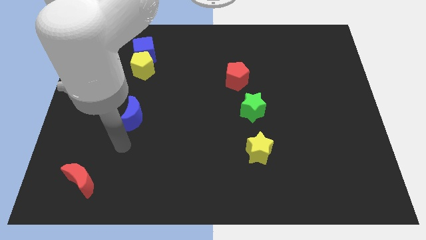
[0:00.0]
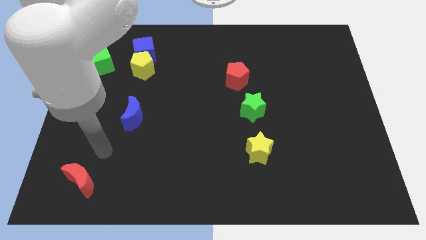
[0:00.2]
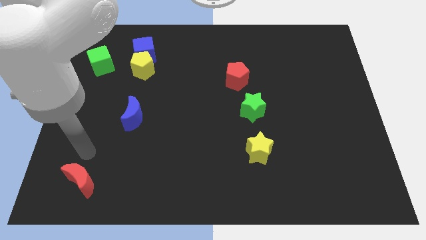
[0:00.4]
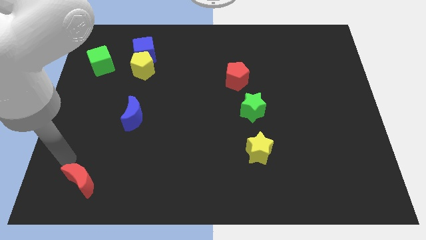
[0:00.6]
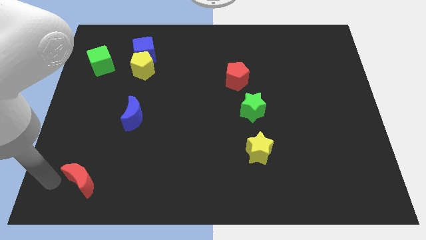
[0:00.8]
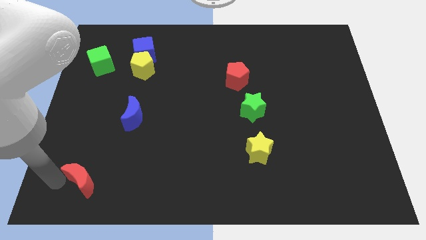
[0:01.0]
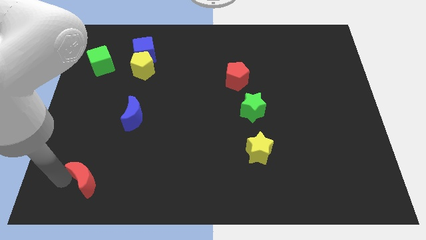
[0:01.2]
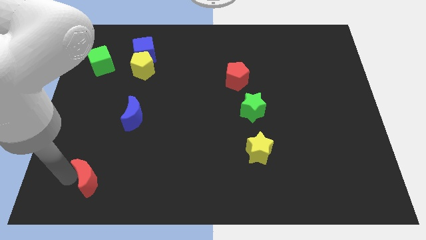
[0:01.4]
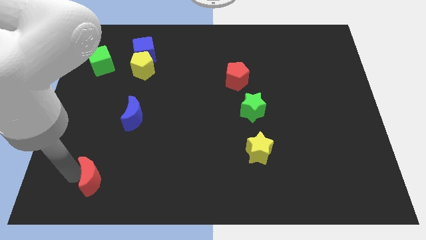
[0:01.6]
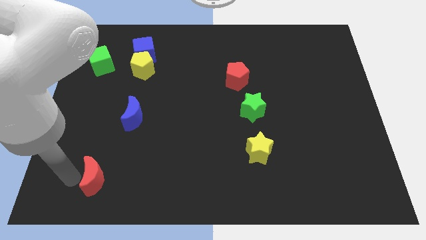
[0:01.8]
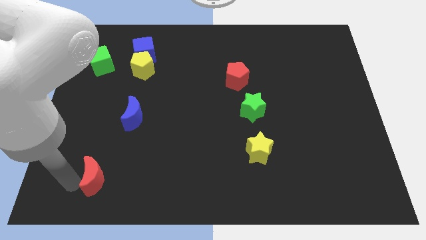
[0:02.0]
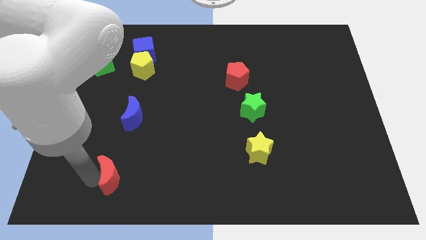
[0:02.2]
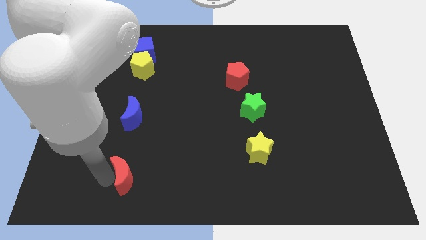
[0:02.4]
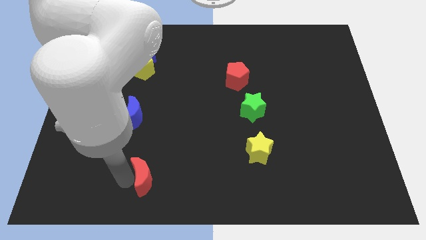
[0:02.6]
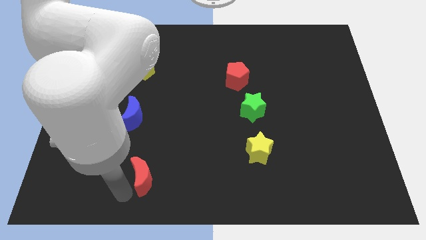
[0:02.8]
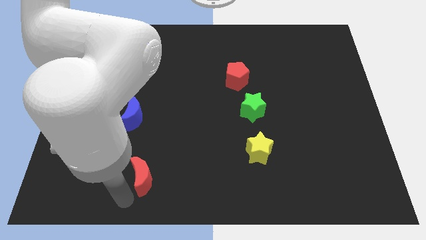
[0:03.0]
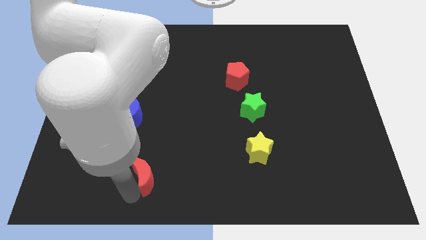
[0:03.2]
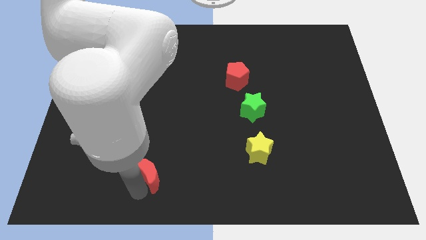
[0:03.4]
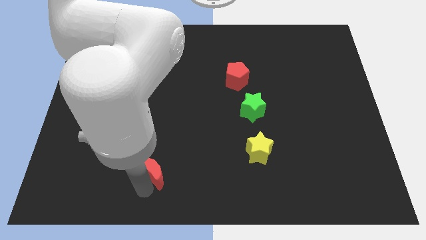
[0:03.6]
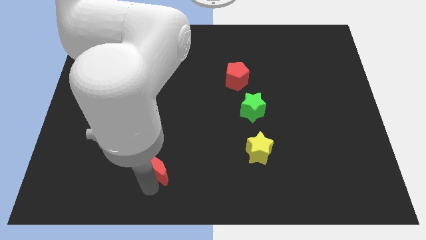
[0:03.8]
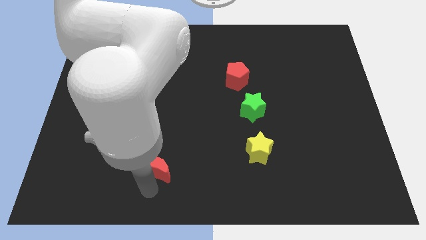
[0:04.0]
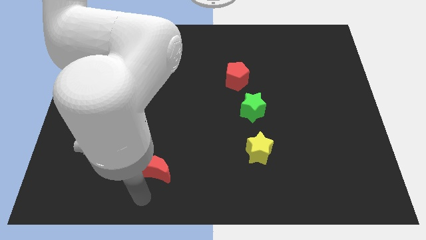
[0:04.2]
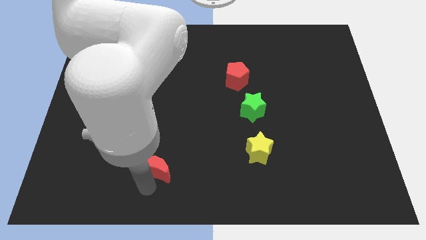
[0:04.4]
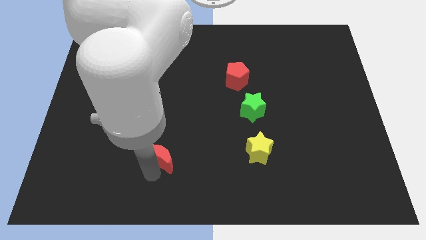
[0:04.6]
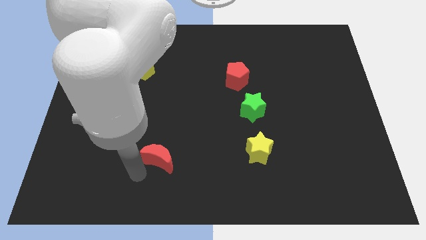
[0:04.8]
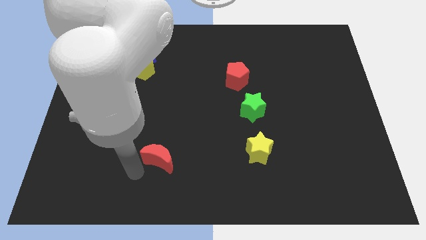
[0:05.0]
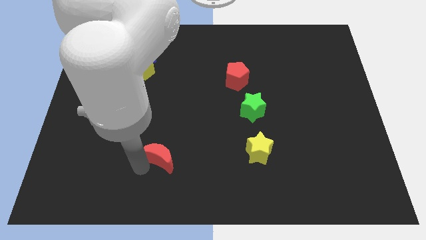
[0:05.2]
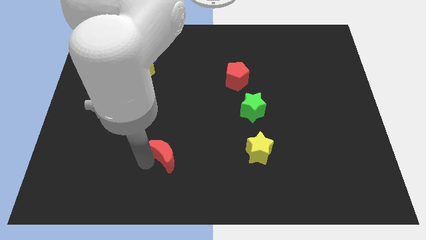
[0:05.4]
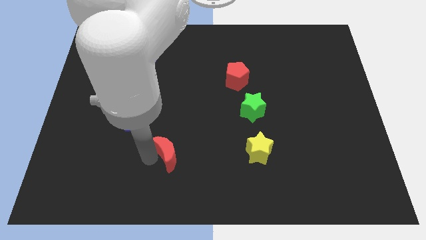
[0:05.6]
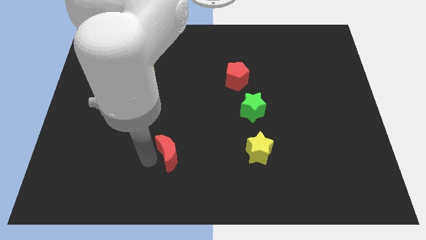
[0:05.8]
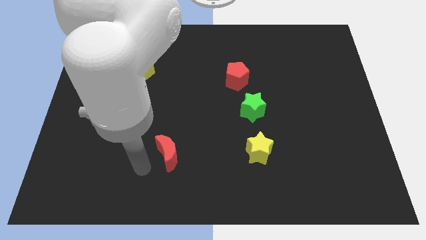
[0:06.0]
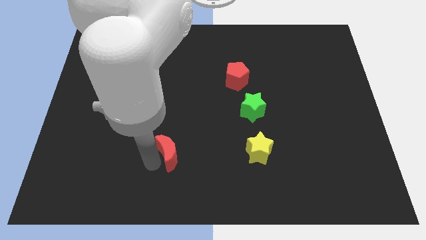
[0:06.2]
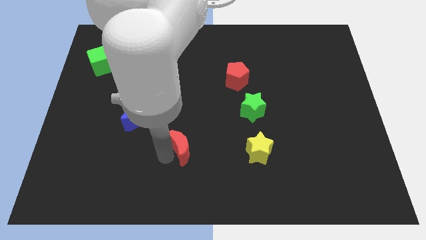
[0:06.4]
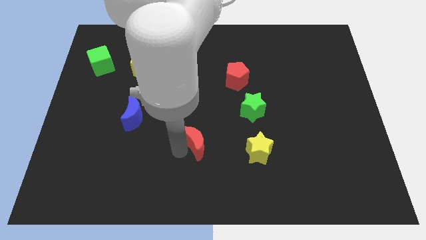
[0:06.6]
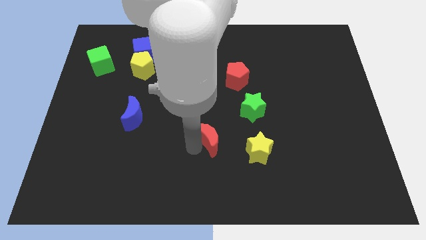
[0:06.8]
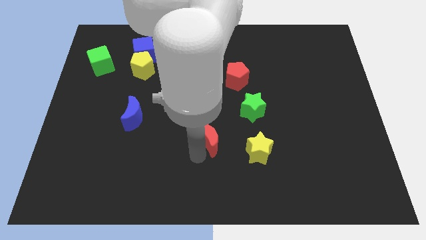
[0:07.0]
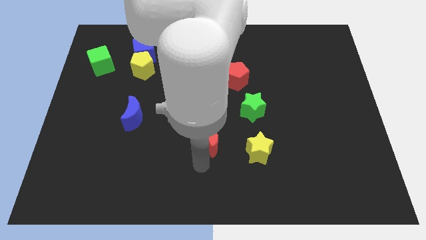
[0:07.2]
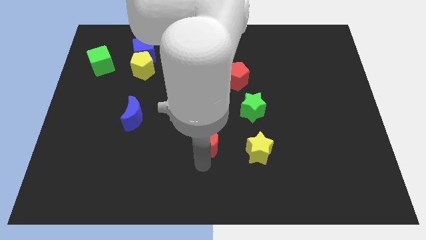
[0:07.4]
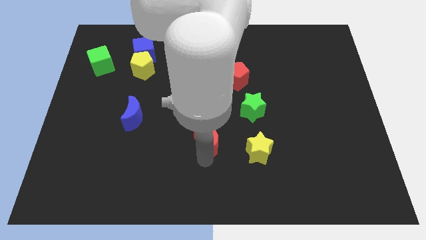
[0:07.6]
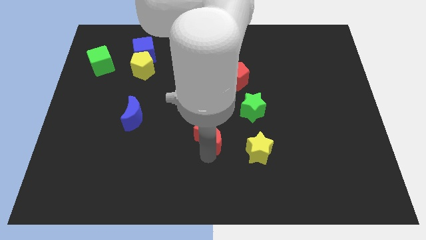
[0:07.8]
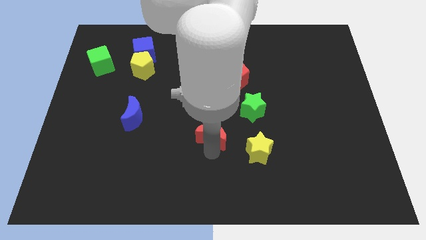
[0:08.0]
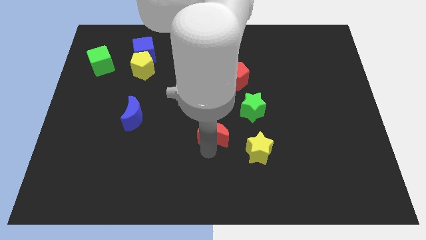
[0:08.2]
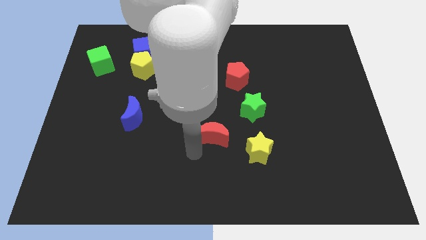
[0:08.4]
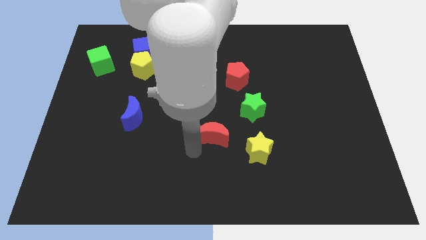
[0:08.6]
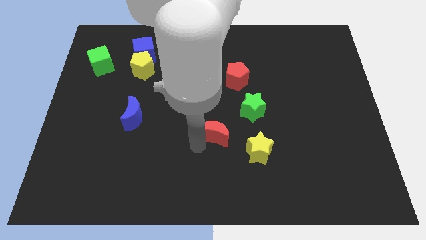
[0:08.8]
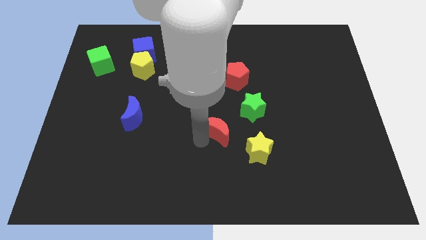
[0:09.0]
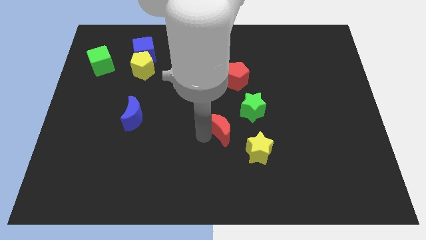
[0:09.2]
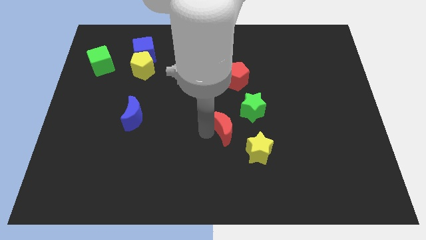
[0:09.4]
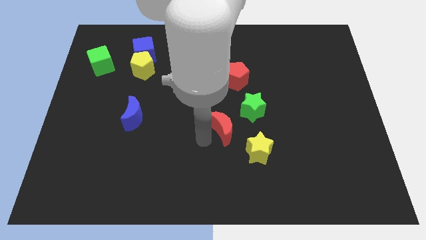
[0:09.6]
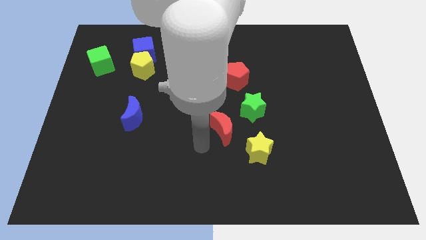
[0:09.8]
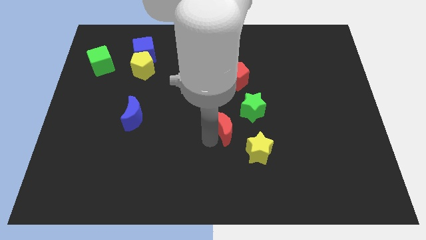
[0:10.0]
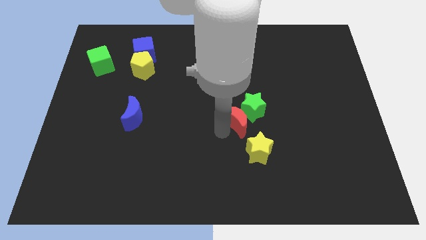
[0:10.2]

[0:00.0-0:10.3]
move the red moon close to the green star

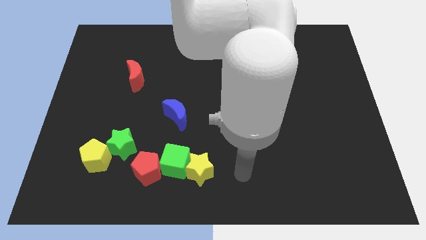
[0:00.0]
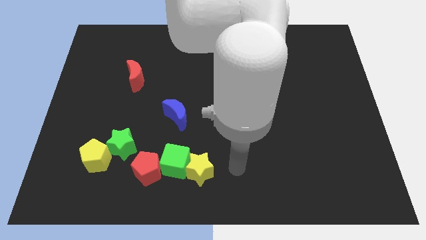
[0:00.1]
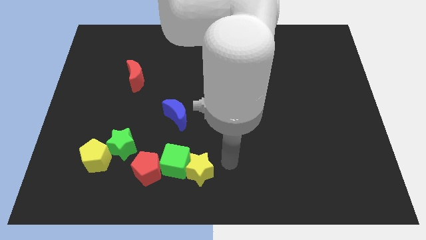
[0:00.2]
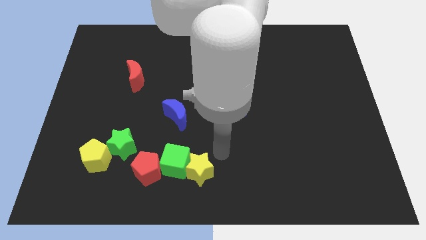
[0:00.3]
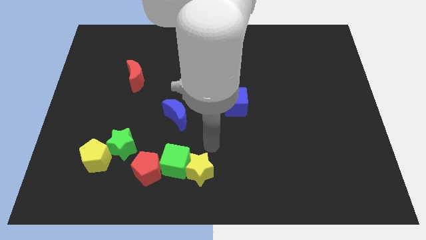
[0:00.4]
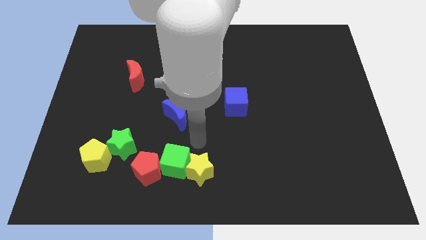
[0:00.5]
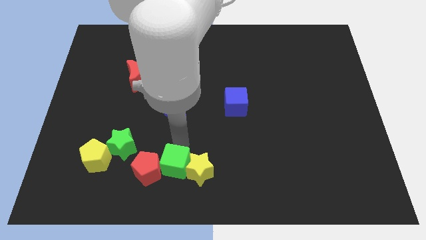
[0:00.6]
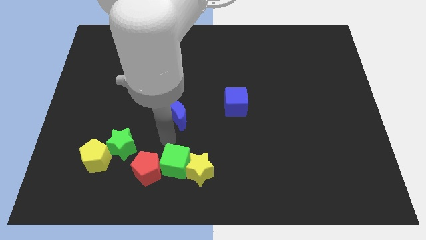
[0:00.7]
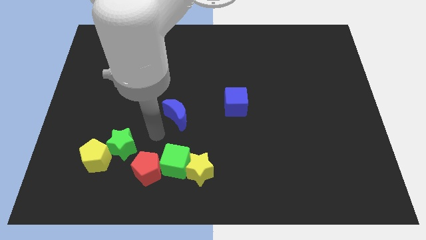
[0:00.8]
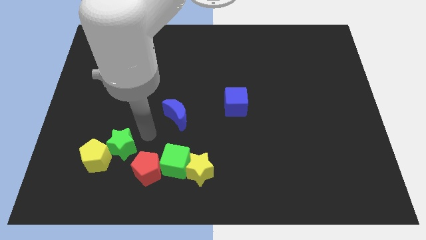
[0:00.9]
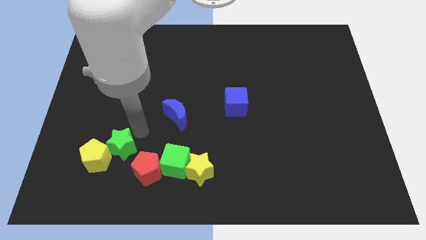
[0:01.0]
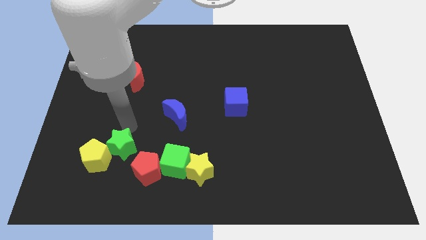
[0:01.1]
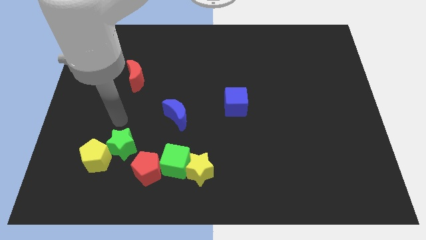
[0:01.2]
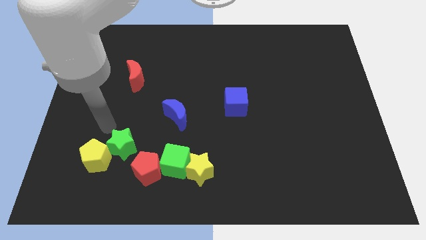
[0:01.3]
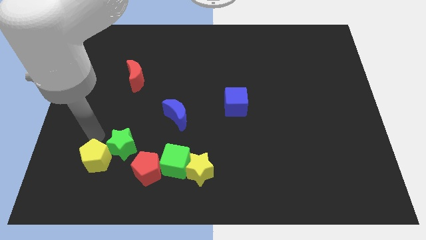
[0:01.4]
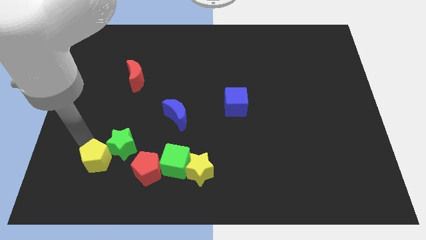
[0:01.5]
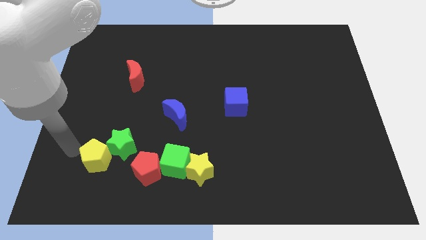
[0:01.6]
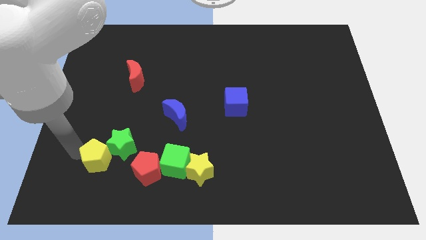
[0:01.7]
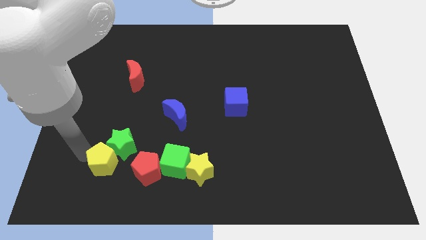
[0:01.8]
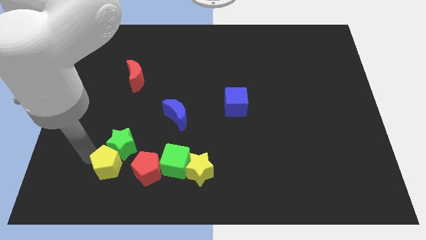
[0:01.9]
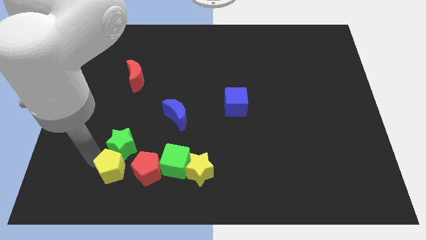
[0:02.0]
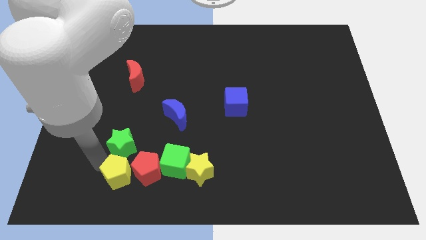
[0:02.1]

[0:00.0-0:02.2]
put the yellow pentagon to the red pentagon
